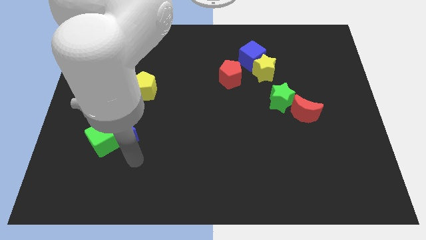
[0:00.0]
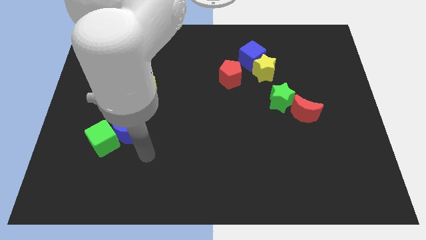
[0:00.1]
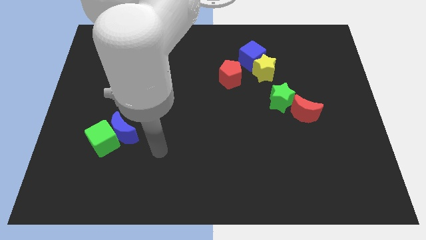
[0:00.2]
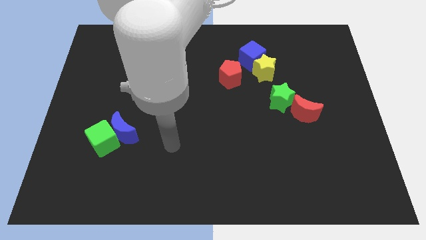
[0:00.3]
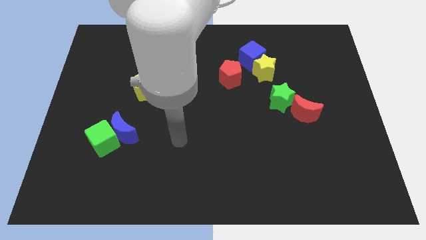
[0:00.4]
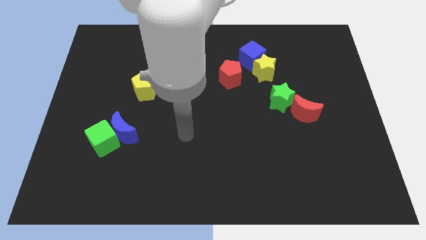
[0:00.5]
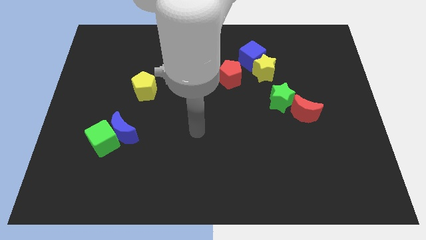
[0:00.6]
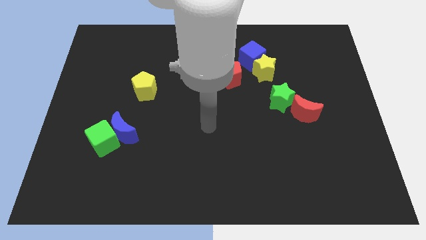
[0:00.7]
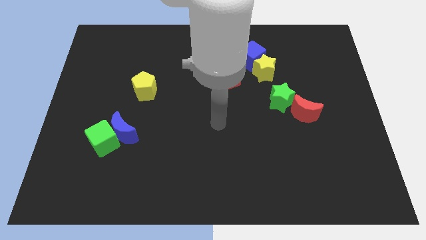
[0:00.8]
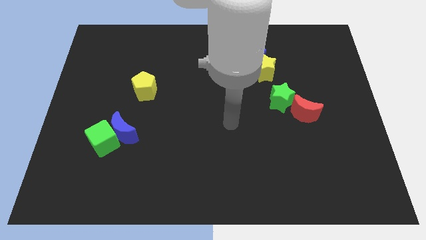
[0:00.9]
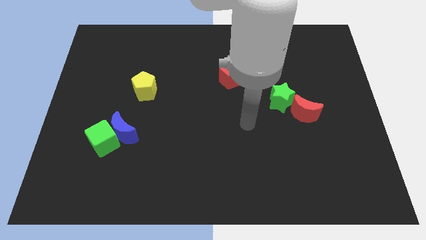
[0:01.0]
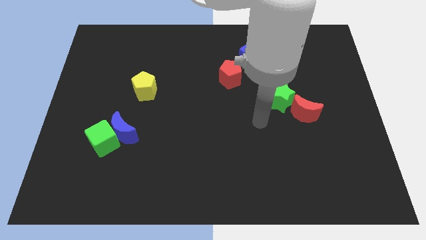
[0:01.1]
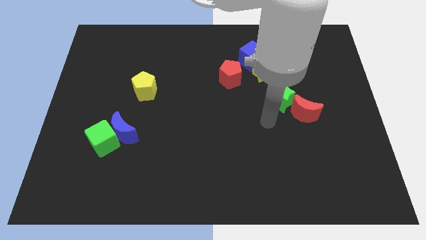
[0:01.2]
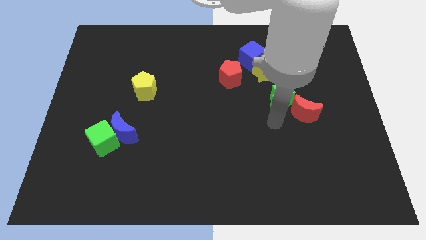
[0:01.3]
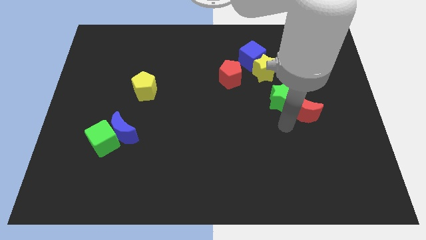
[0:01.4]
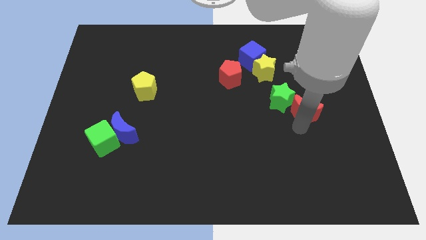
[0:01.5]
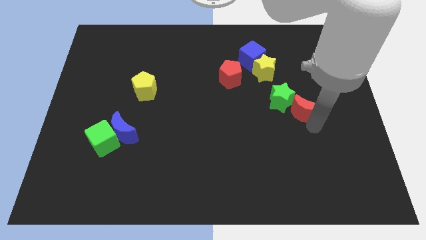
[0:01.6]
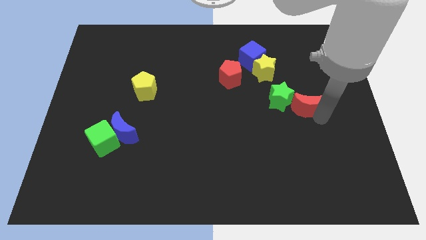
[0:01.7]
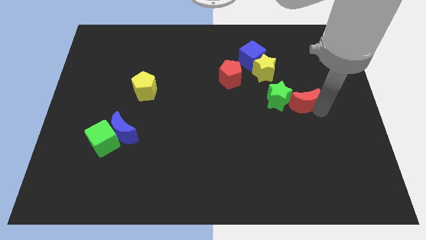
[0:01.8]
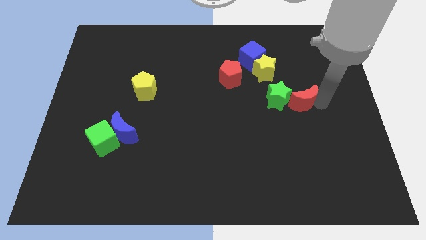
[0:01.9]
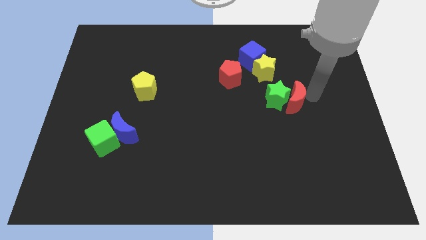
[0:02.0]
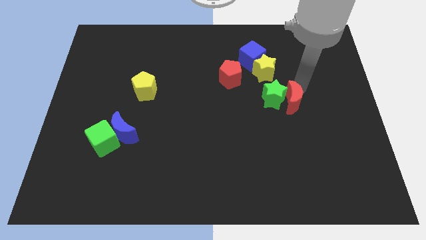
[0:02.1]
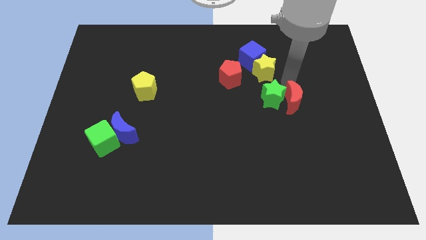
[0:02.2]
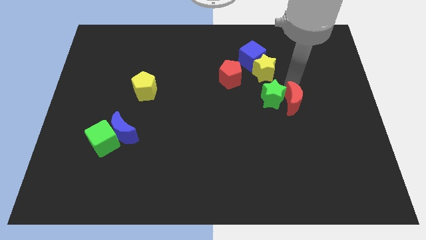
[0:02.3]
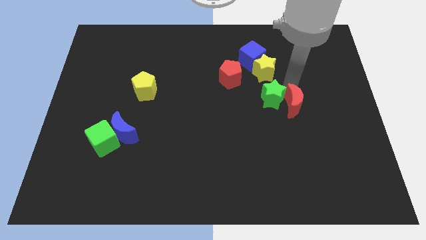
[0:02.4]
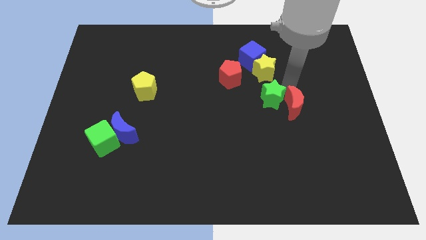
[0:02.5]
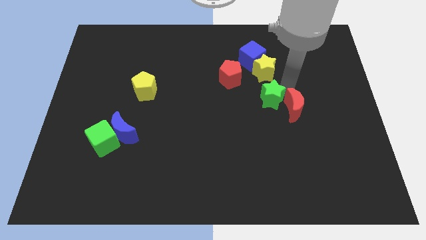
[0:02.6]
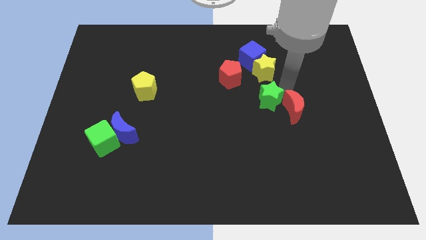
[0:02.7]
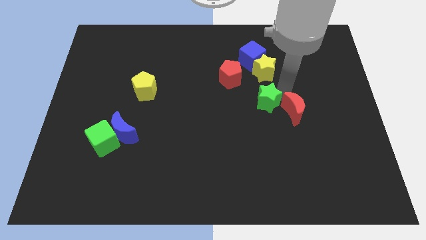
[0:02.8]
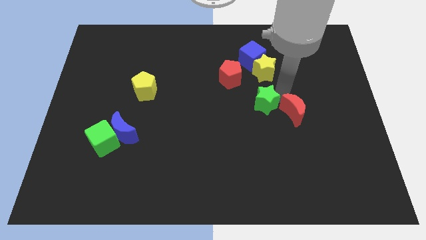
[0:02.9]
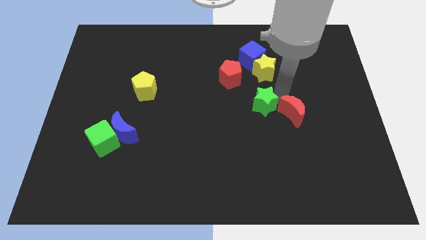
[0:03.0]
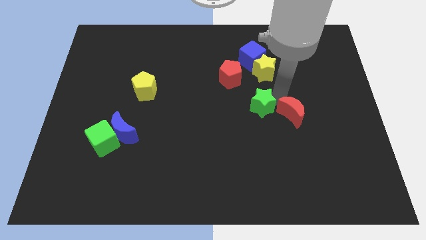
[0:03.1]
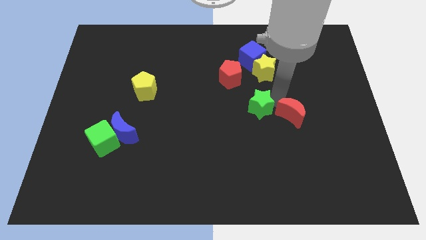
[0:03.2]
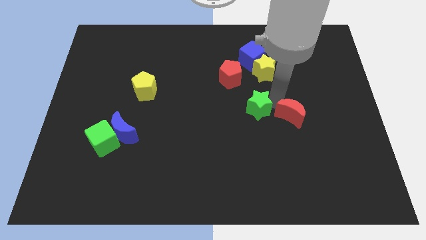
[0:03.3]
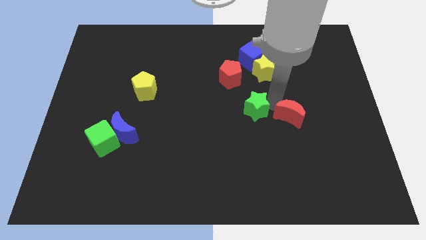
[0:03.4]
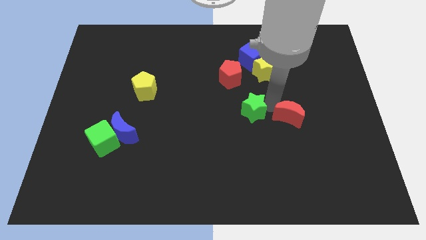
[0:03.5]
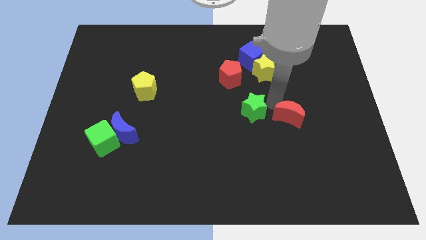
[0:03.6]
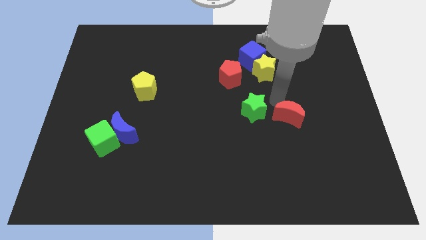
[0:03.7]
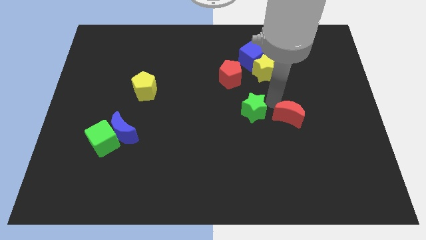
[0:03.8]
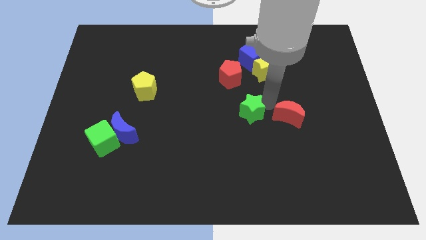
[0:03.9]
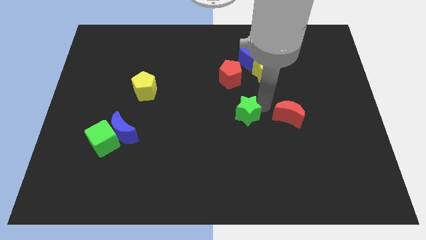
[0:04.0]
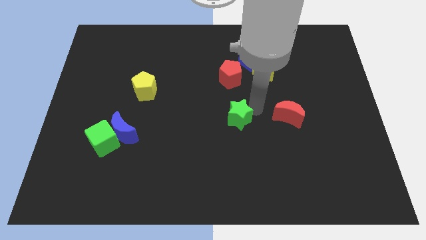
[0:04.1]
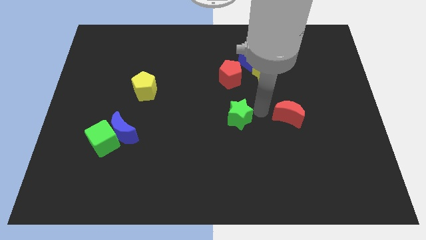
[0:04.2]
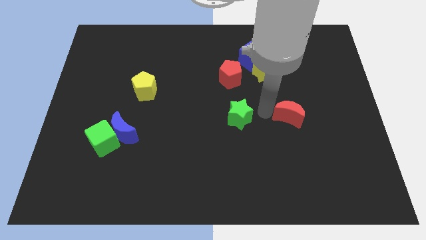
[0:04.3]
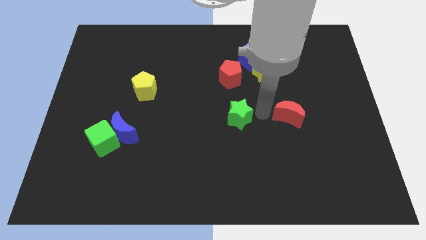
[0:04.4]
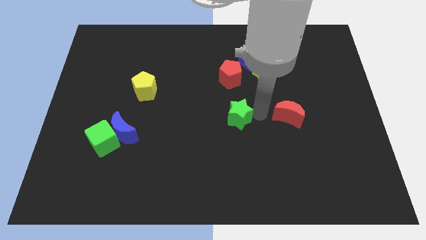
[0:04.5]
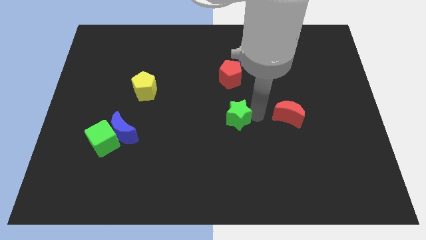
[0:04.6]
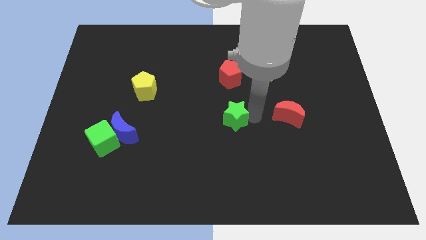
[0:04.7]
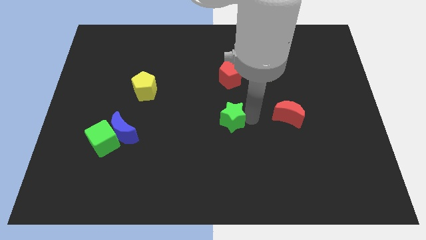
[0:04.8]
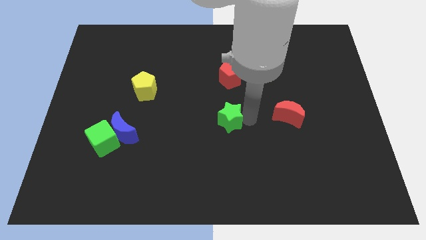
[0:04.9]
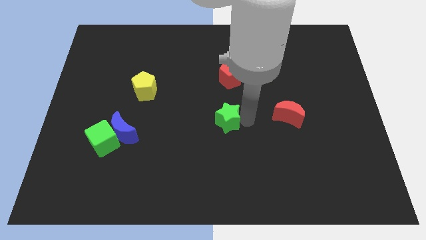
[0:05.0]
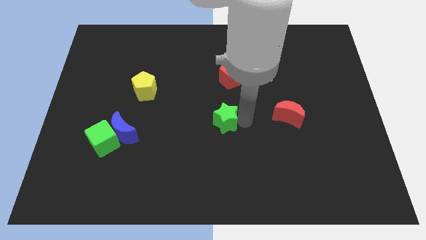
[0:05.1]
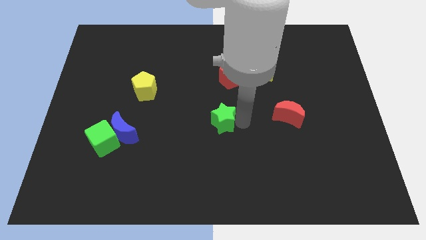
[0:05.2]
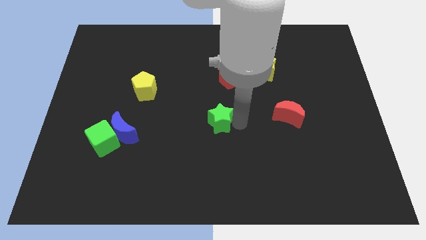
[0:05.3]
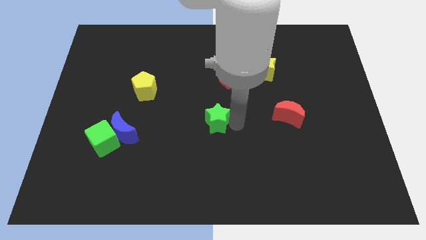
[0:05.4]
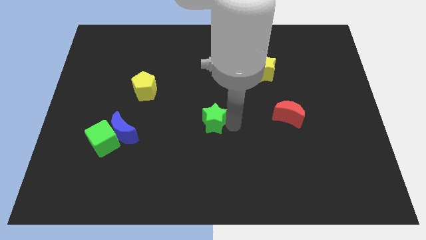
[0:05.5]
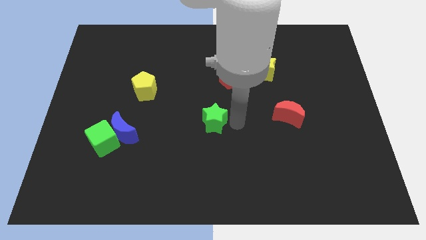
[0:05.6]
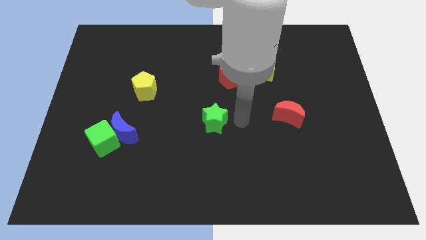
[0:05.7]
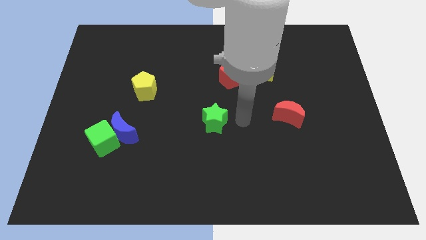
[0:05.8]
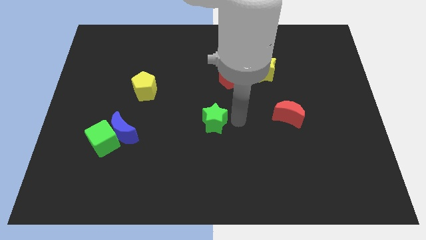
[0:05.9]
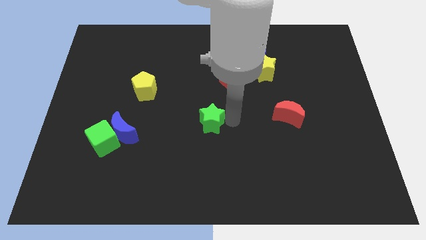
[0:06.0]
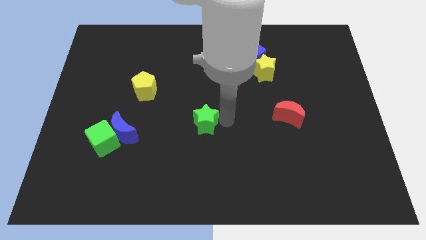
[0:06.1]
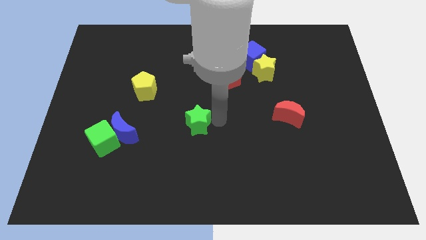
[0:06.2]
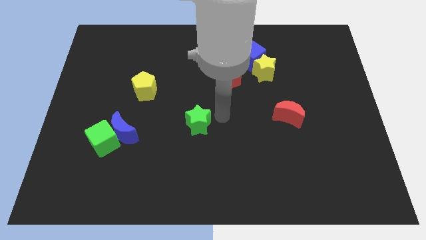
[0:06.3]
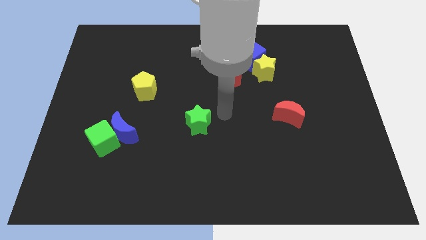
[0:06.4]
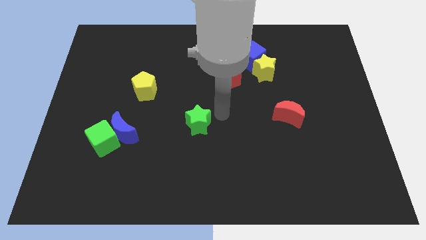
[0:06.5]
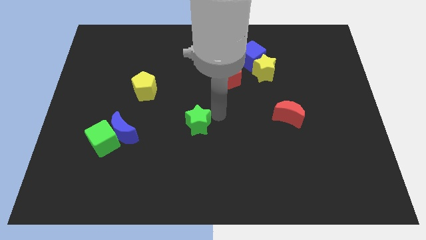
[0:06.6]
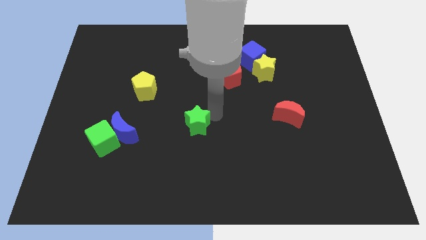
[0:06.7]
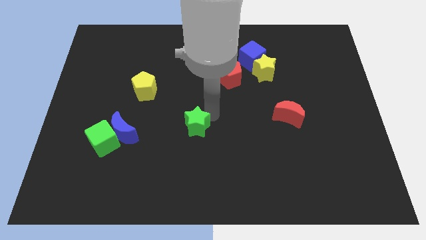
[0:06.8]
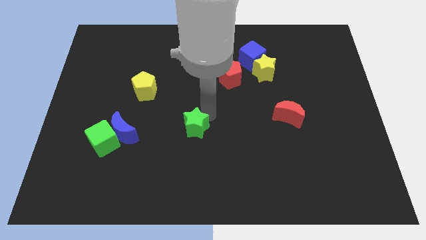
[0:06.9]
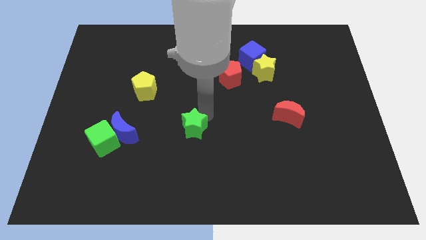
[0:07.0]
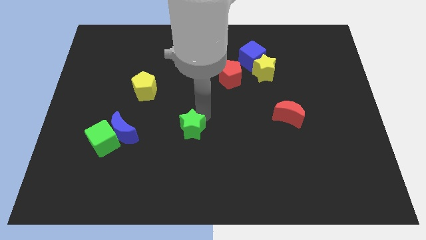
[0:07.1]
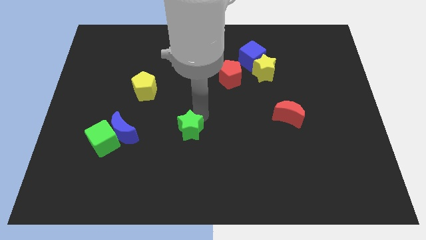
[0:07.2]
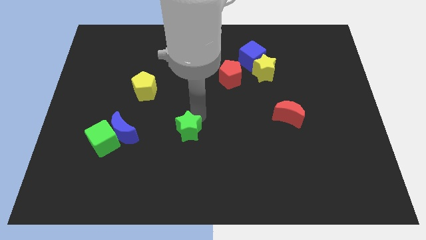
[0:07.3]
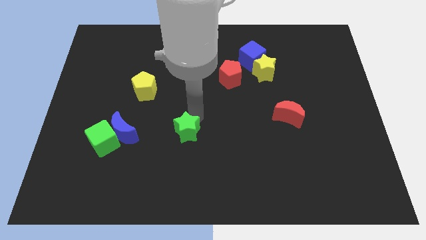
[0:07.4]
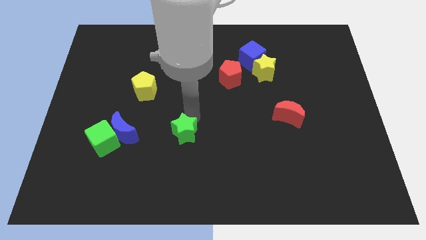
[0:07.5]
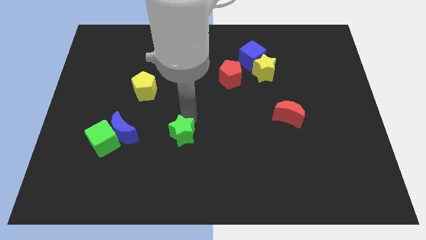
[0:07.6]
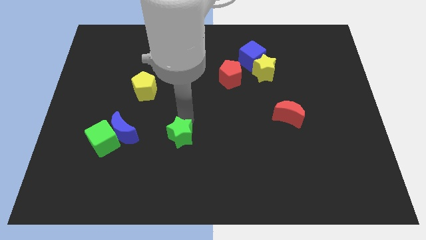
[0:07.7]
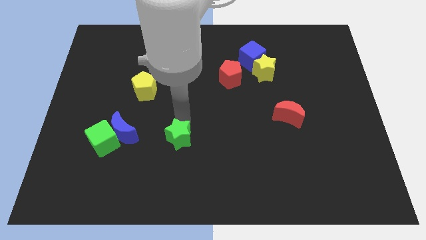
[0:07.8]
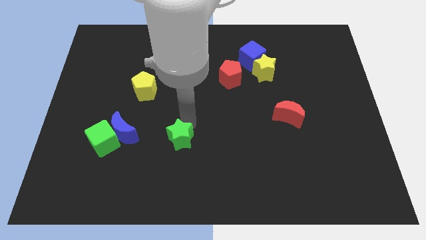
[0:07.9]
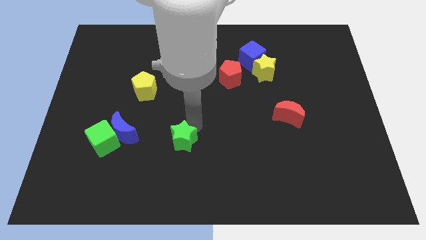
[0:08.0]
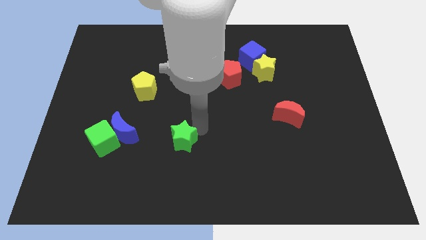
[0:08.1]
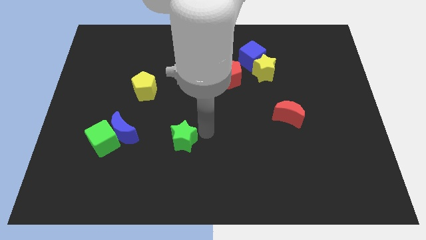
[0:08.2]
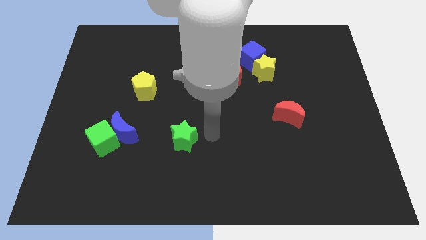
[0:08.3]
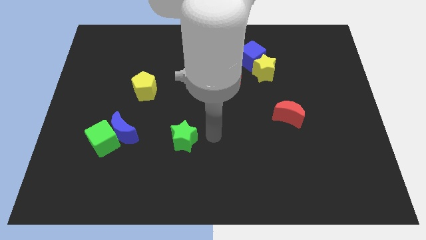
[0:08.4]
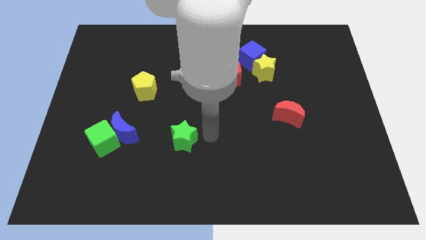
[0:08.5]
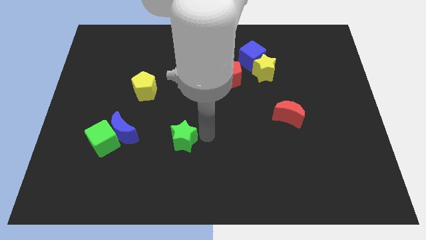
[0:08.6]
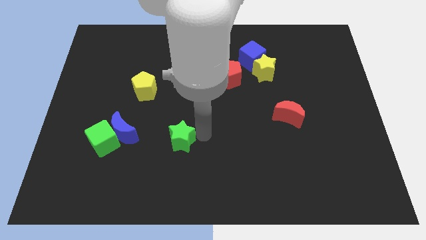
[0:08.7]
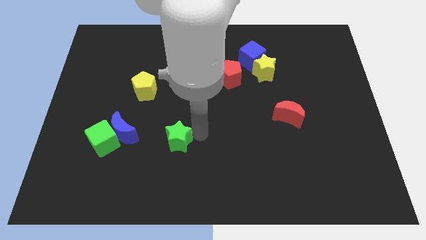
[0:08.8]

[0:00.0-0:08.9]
push the green star to the right of the green cube
